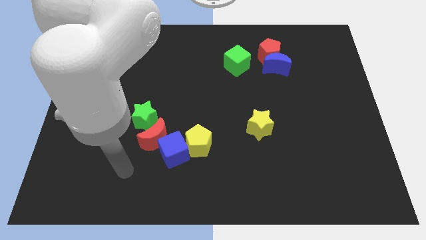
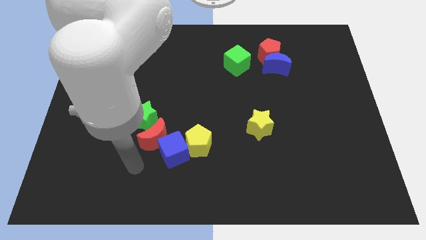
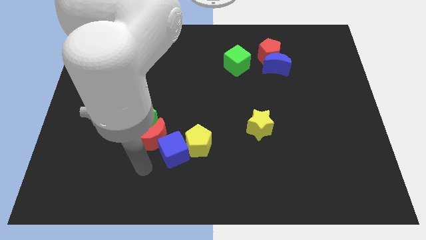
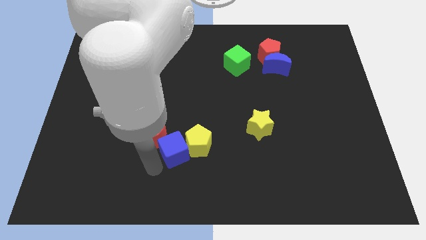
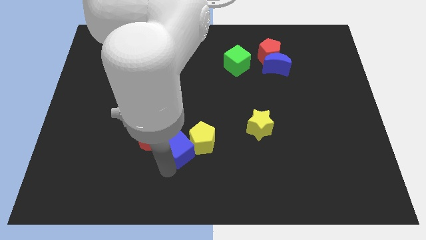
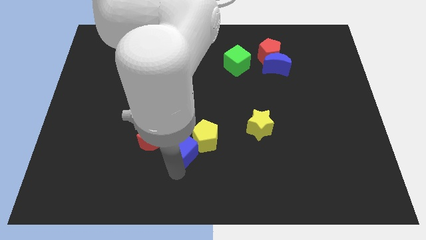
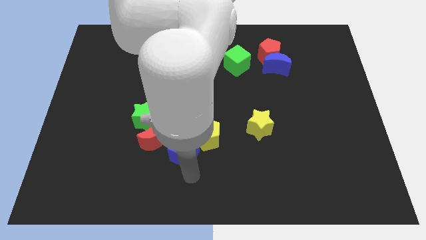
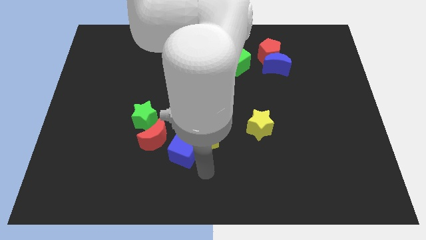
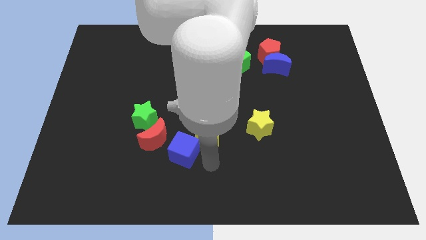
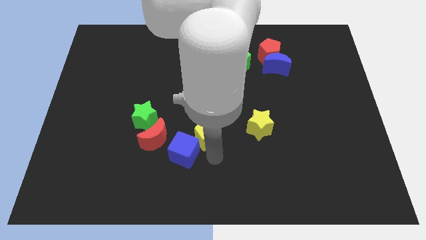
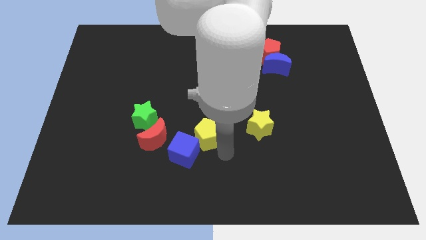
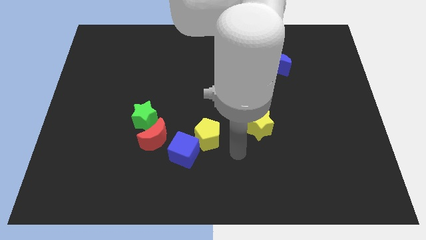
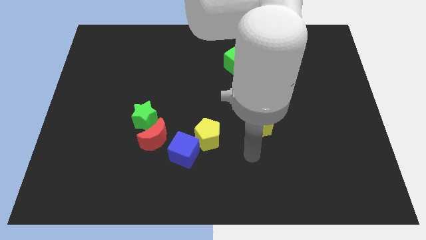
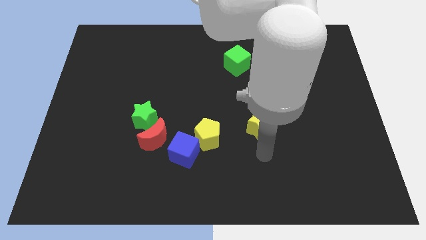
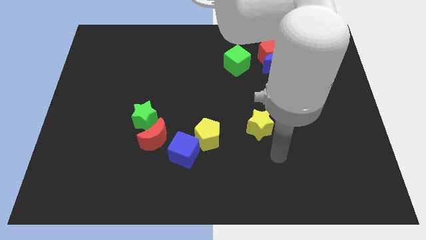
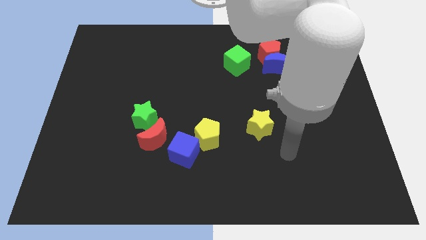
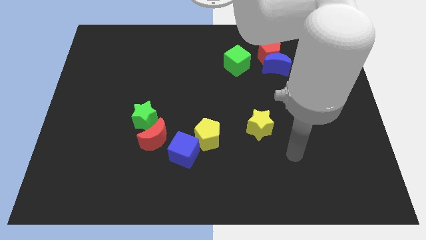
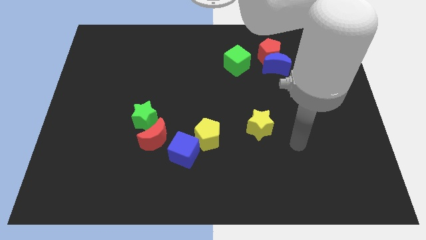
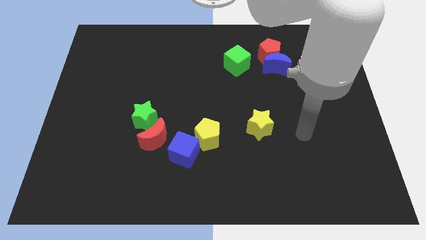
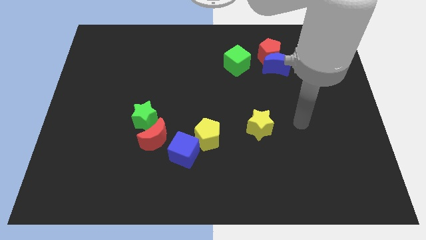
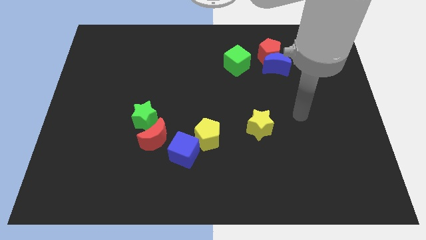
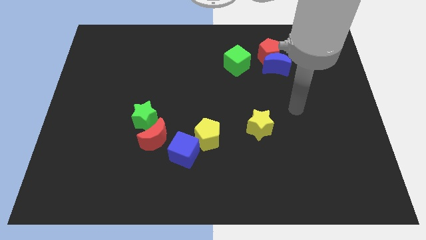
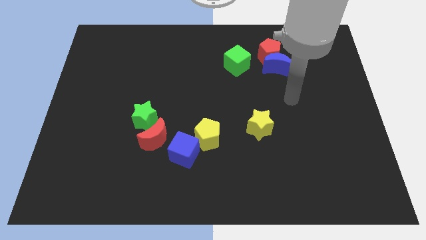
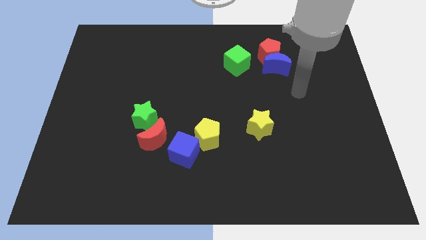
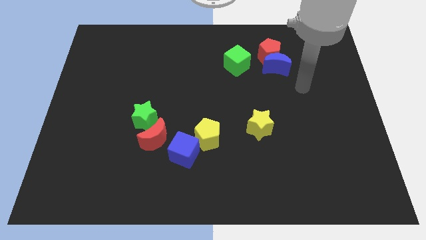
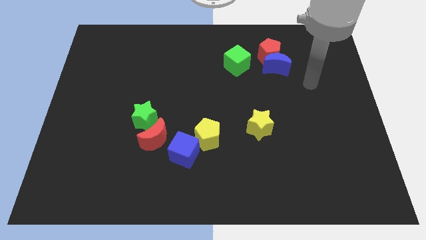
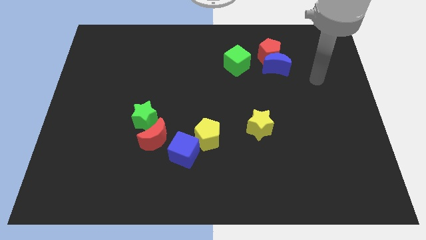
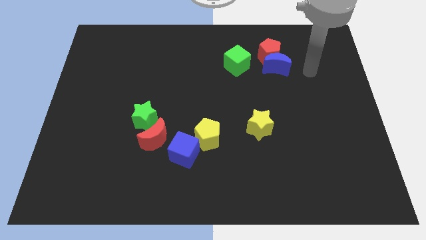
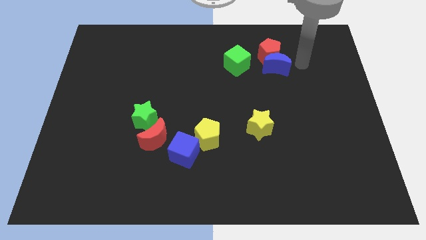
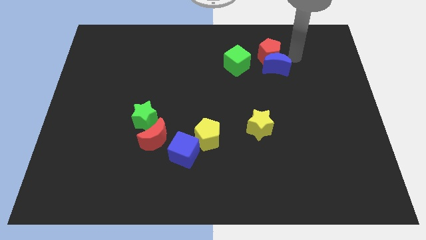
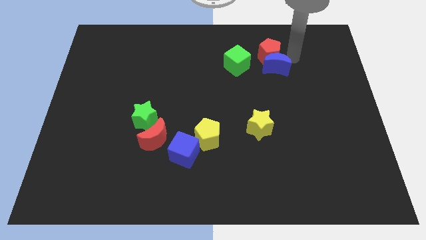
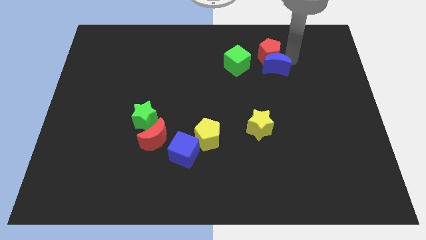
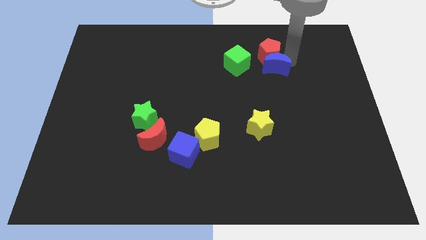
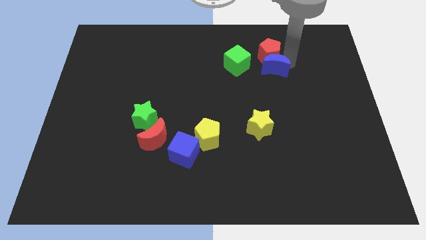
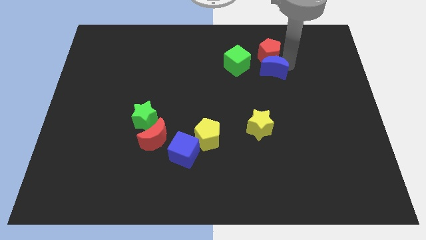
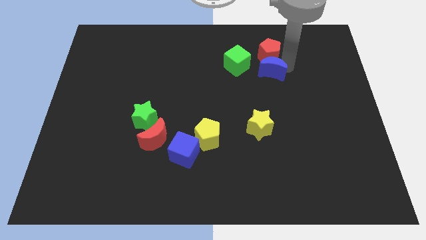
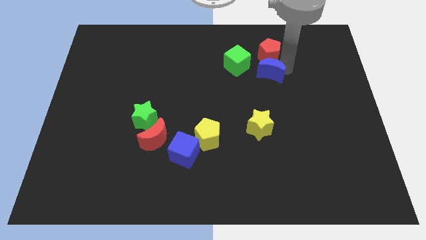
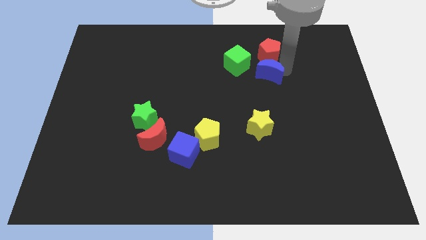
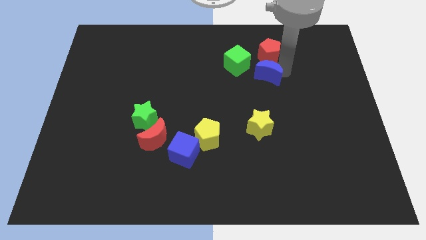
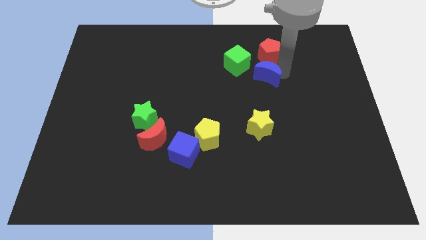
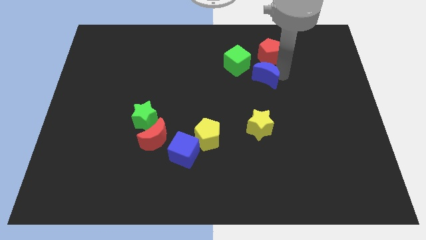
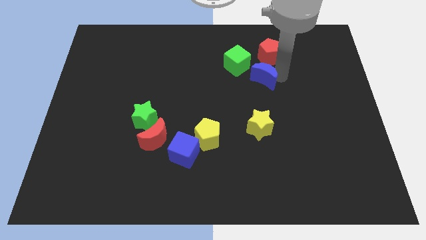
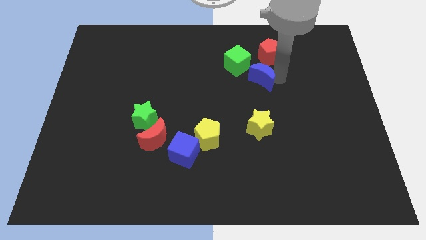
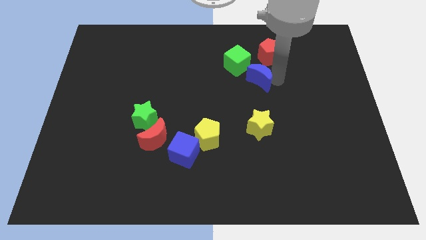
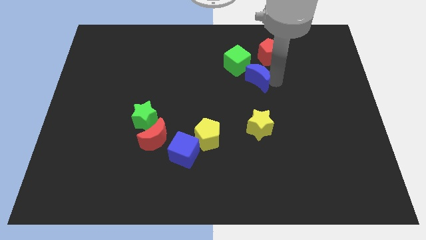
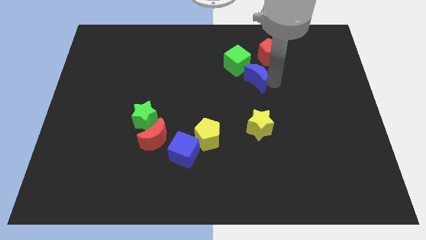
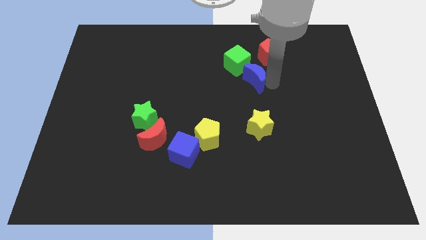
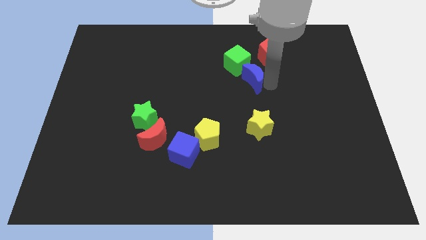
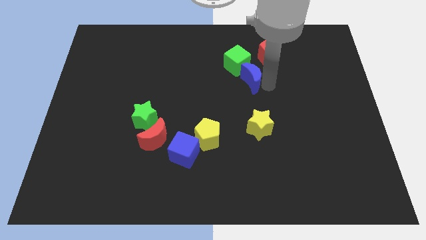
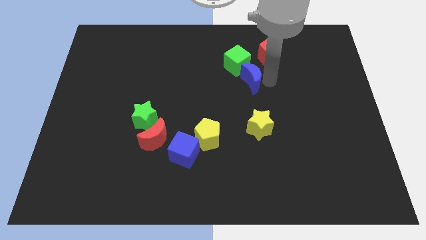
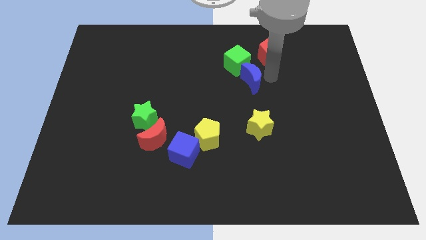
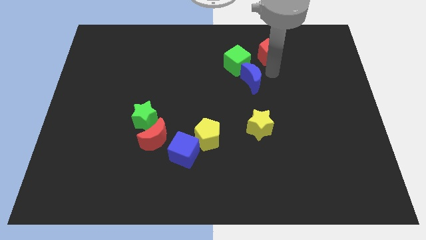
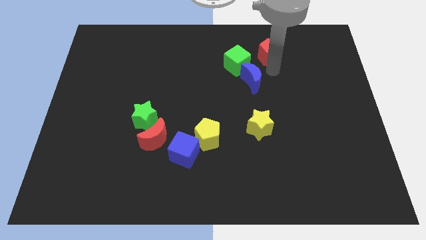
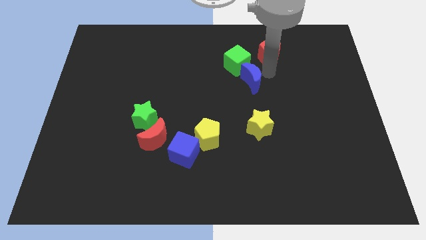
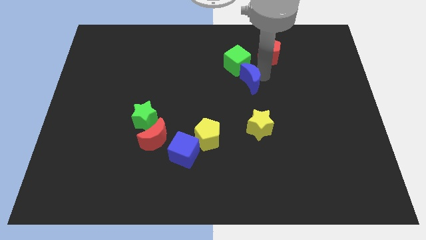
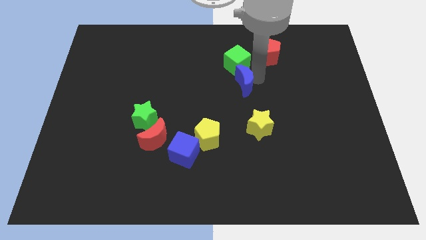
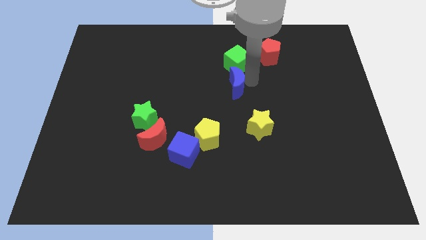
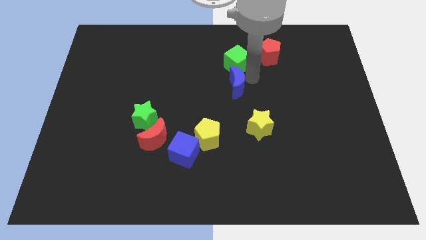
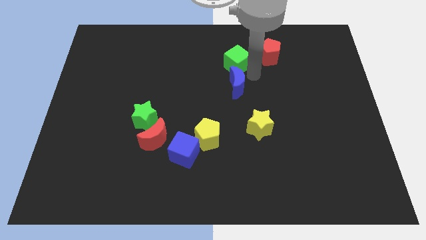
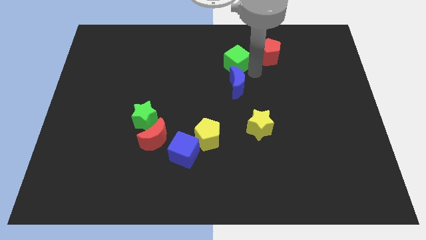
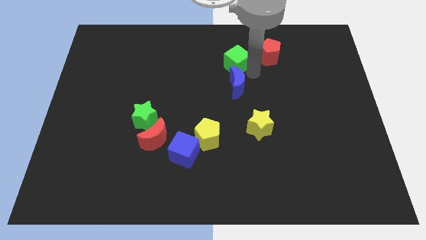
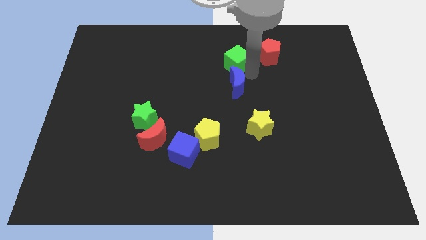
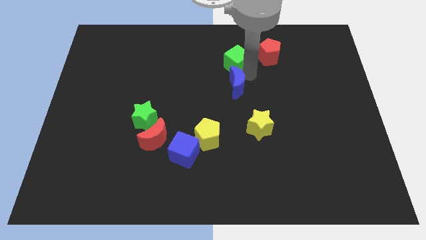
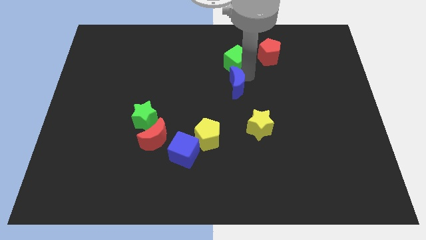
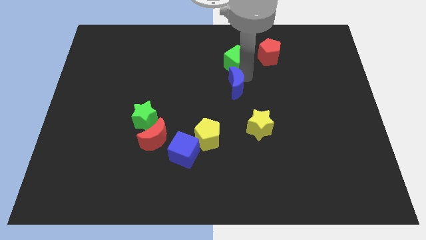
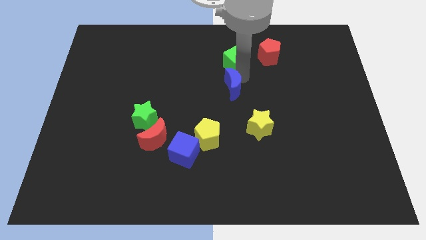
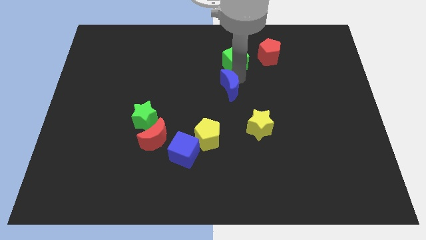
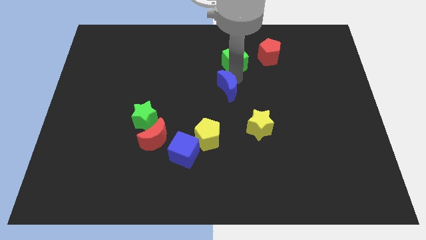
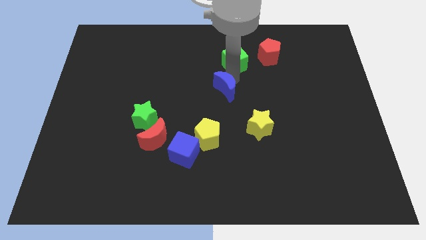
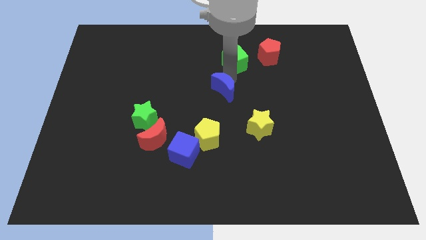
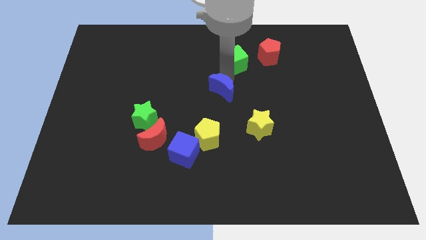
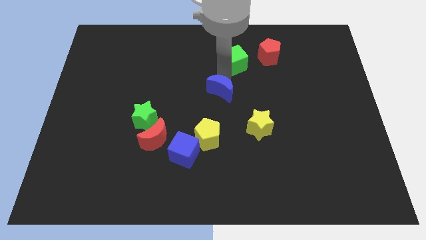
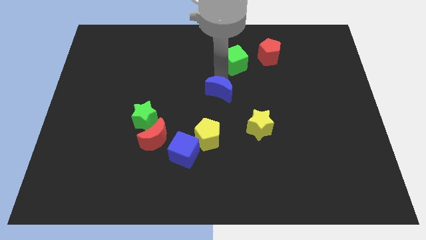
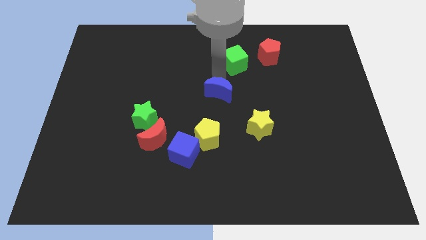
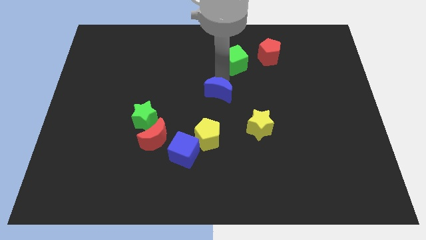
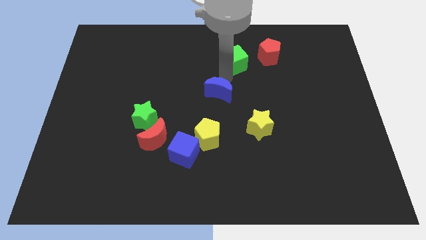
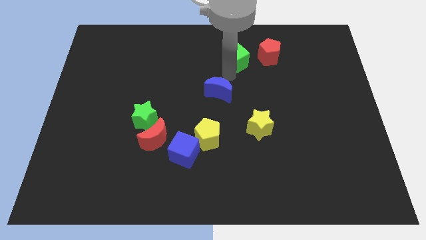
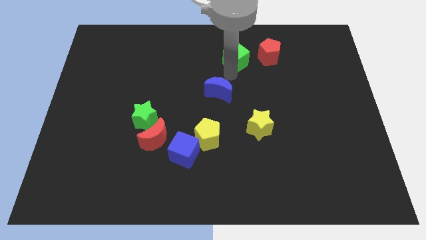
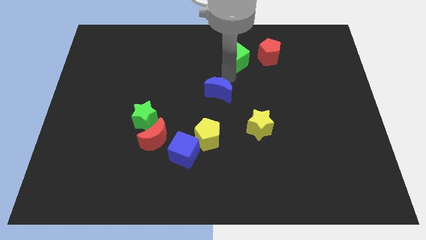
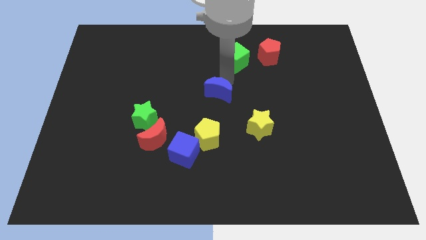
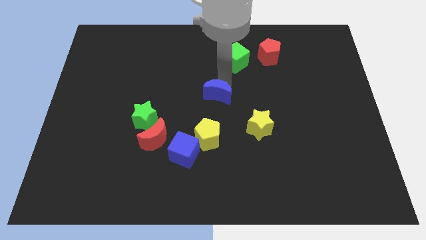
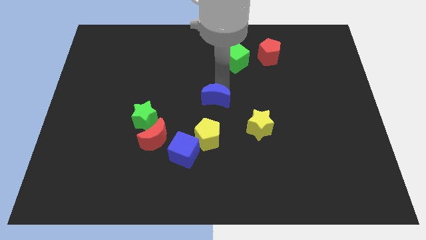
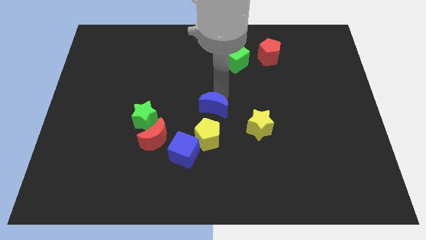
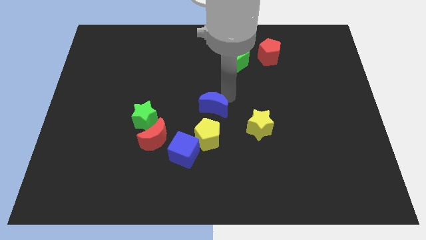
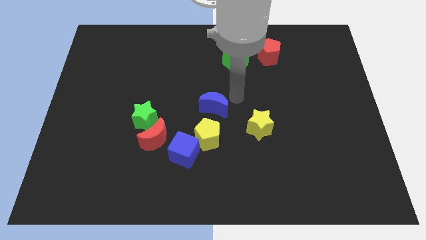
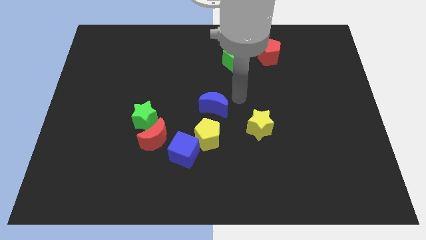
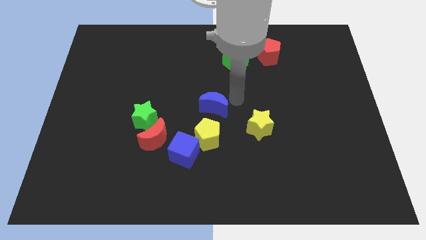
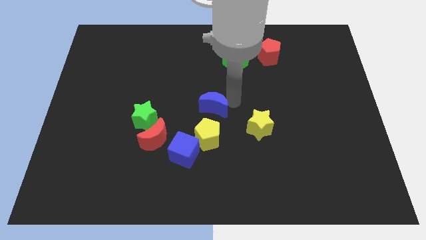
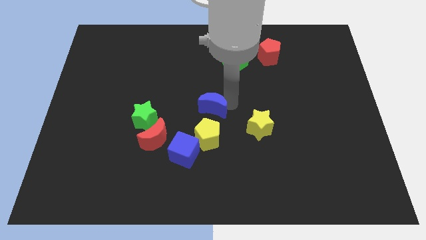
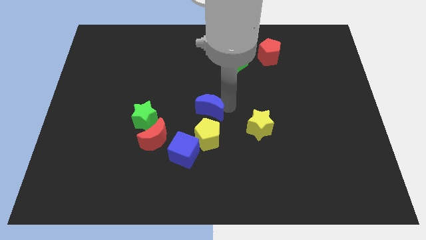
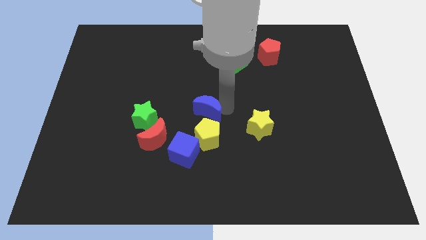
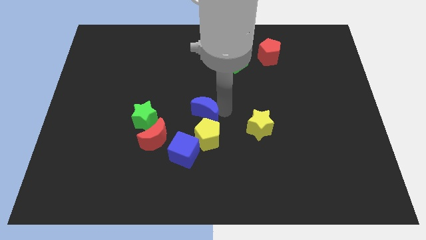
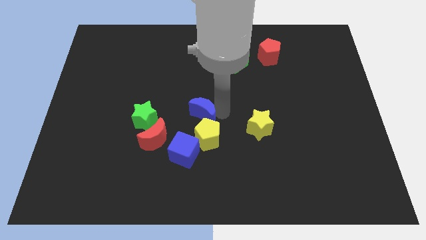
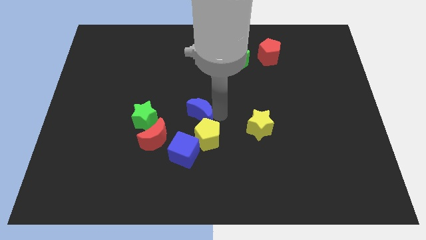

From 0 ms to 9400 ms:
slide the blue moon diagonally up and to the right of the red moon
